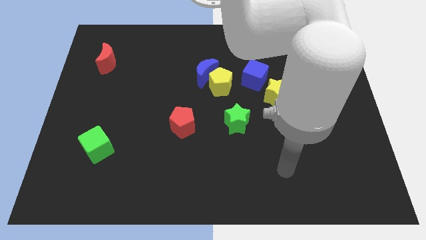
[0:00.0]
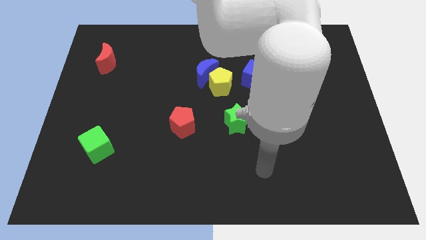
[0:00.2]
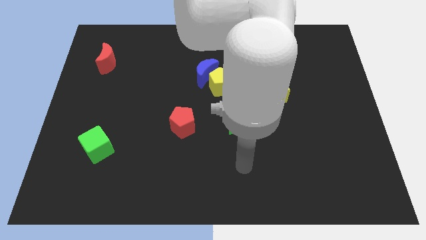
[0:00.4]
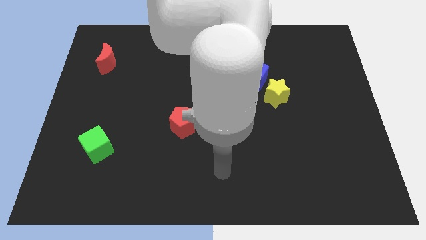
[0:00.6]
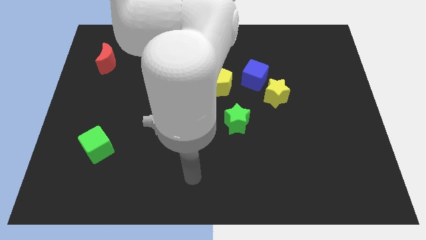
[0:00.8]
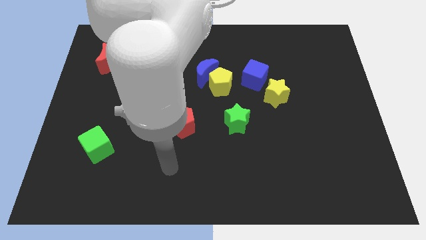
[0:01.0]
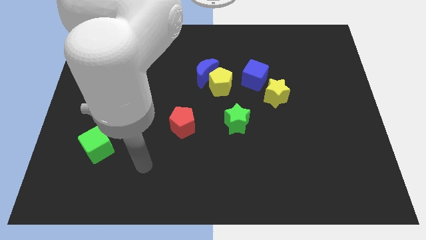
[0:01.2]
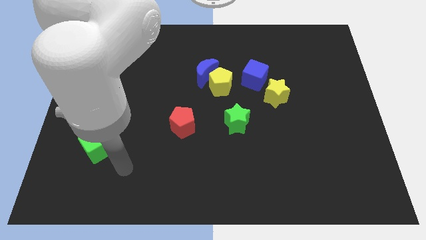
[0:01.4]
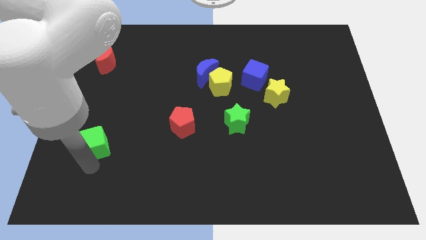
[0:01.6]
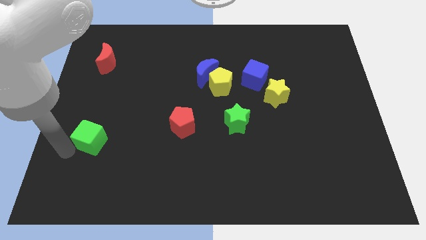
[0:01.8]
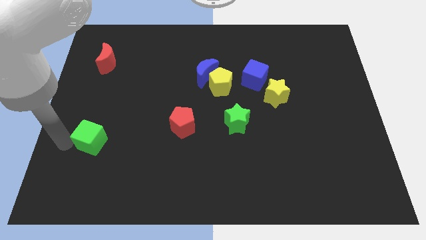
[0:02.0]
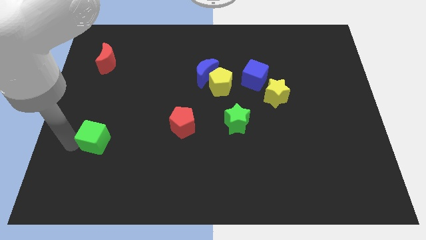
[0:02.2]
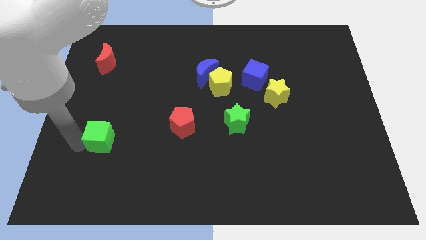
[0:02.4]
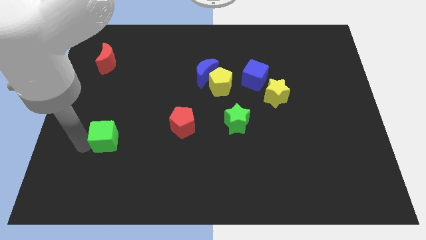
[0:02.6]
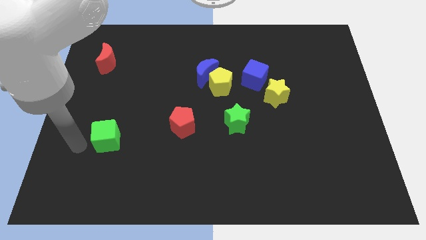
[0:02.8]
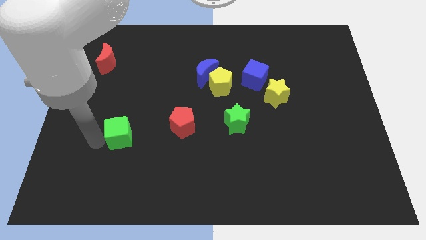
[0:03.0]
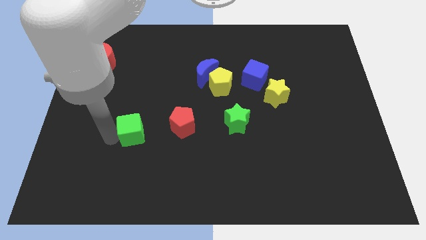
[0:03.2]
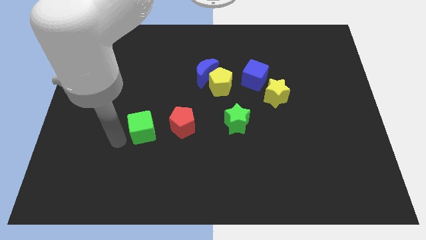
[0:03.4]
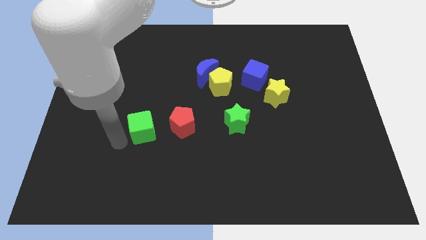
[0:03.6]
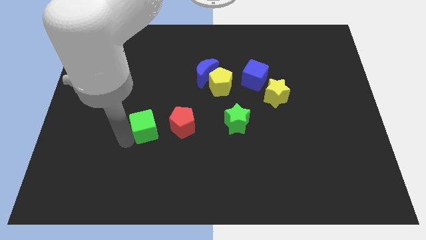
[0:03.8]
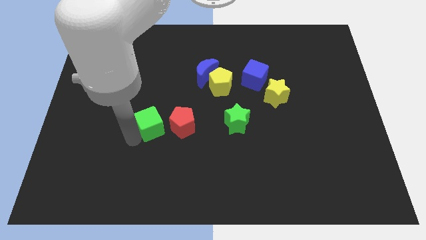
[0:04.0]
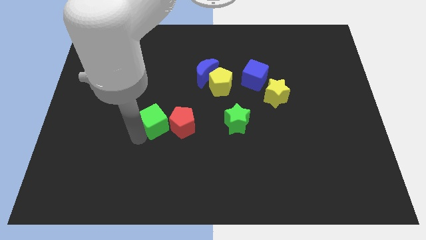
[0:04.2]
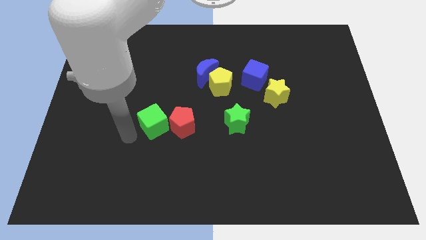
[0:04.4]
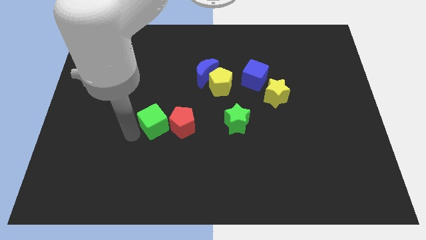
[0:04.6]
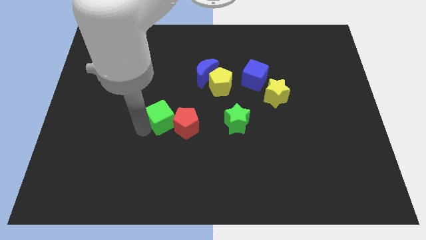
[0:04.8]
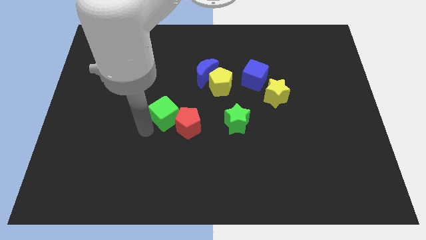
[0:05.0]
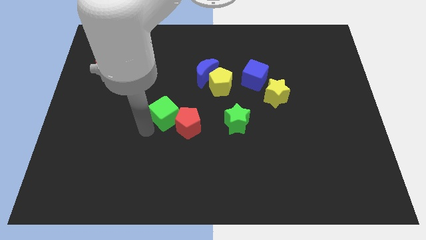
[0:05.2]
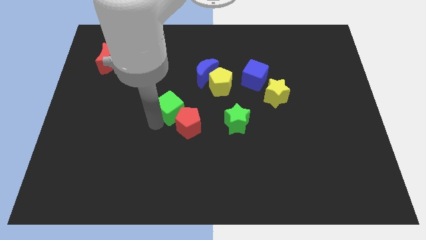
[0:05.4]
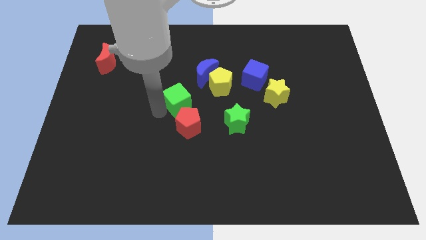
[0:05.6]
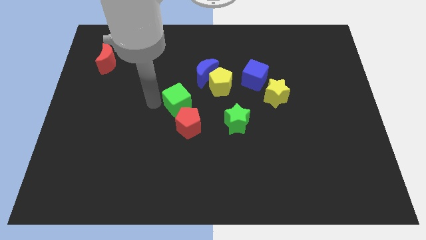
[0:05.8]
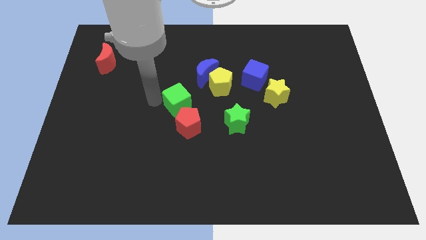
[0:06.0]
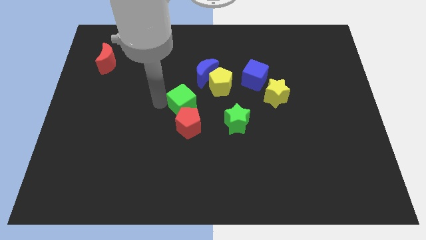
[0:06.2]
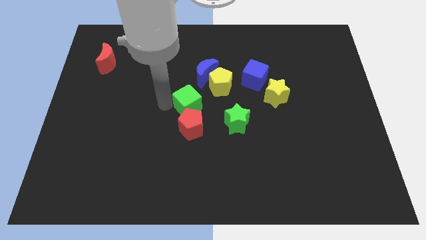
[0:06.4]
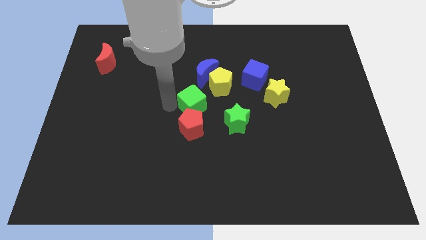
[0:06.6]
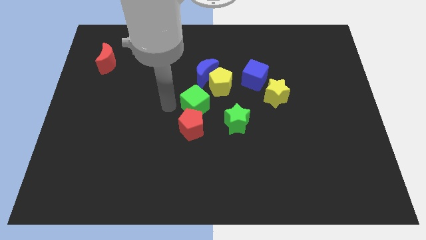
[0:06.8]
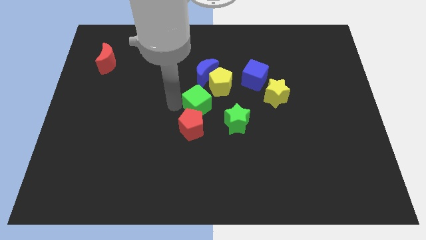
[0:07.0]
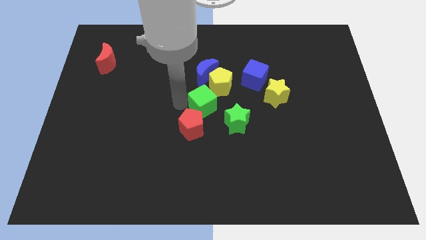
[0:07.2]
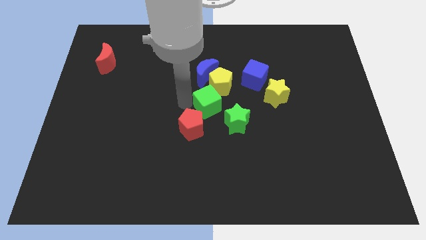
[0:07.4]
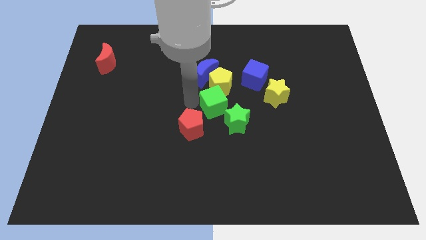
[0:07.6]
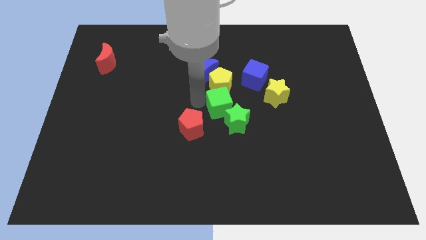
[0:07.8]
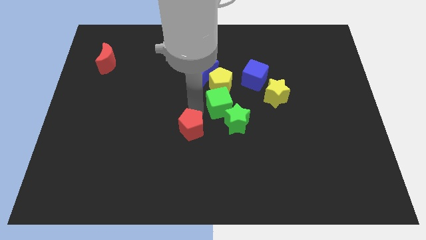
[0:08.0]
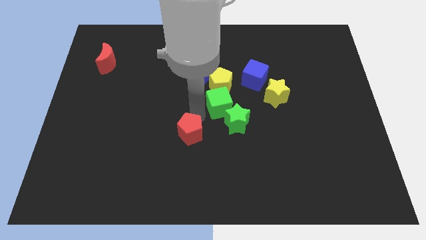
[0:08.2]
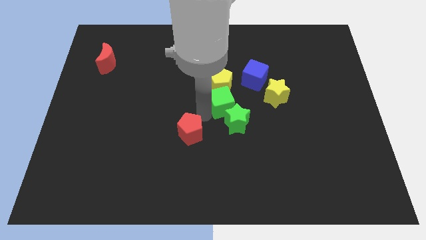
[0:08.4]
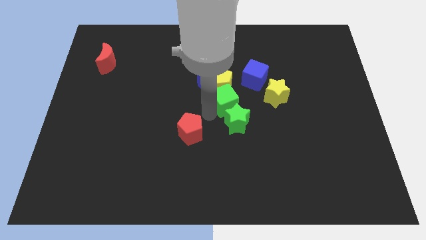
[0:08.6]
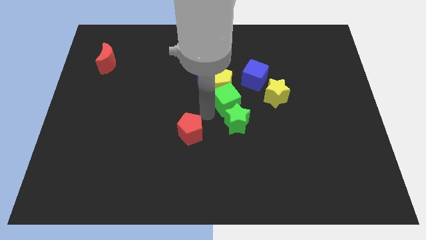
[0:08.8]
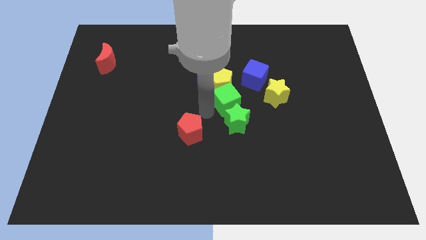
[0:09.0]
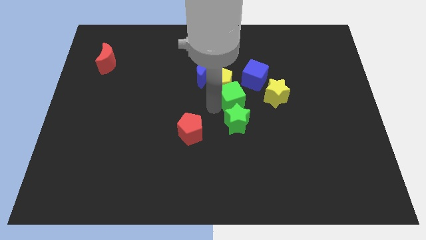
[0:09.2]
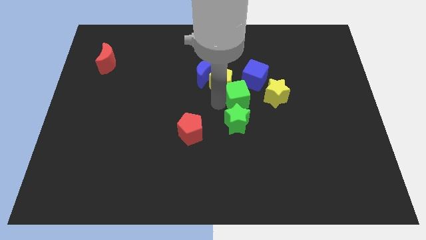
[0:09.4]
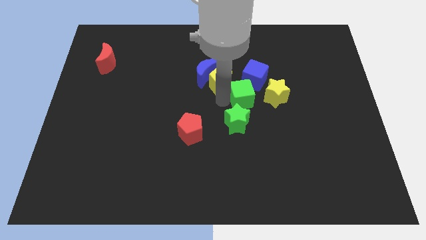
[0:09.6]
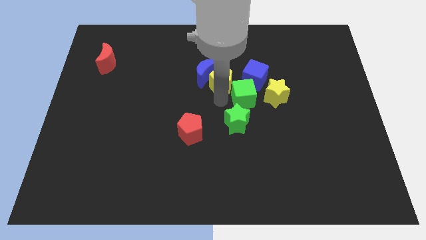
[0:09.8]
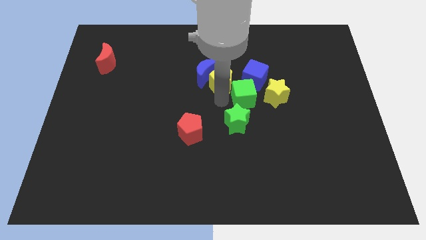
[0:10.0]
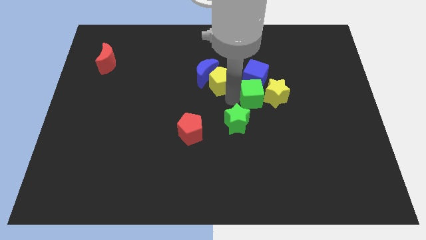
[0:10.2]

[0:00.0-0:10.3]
put the green cube close to the yellow star

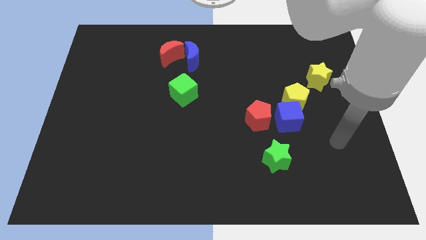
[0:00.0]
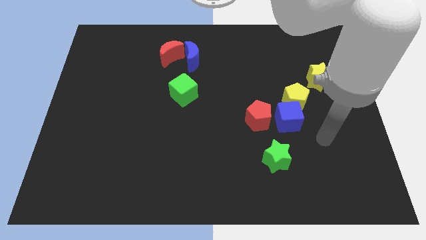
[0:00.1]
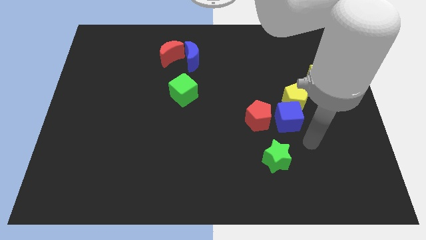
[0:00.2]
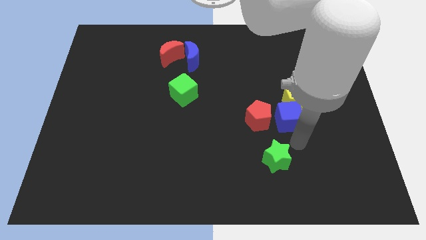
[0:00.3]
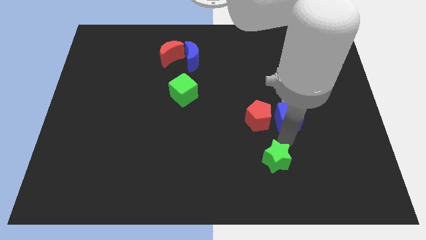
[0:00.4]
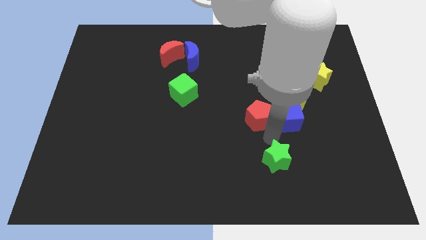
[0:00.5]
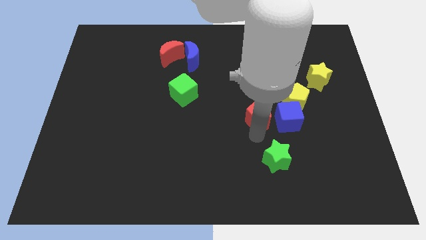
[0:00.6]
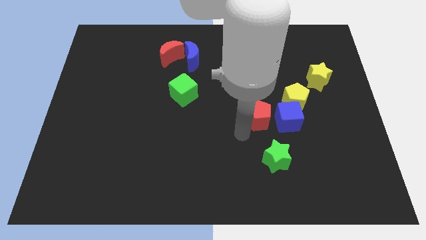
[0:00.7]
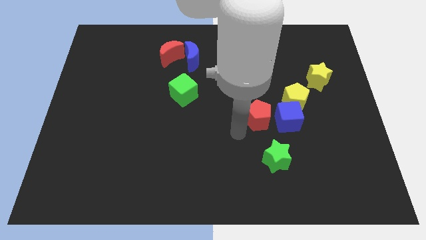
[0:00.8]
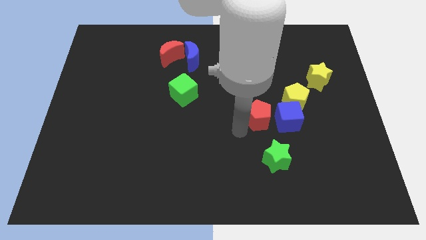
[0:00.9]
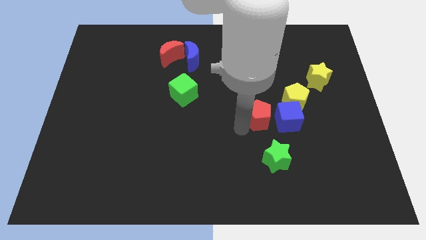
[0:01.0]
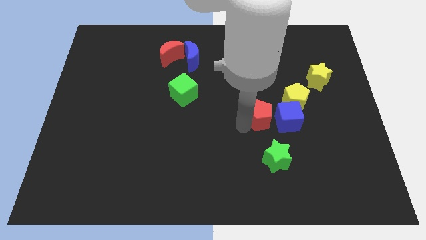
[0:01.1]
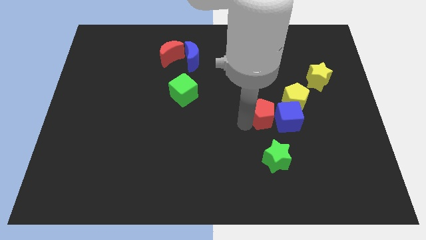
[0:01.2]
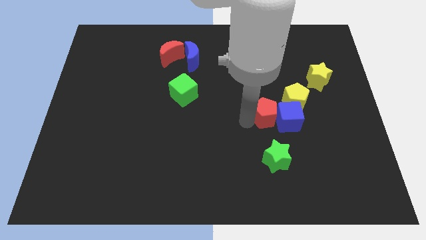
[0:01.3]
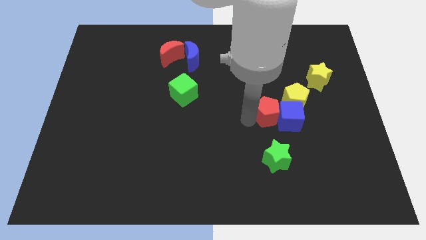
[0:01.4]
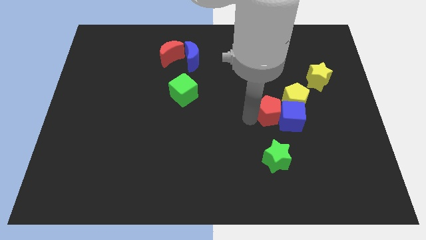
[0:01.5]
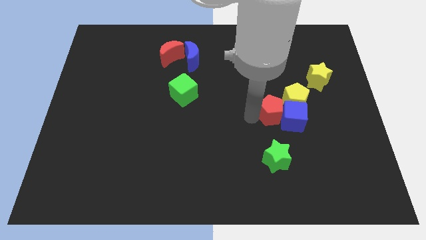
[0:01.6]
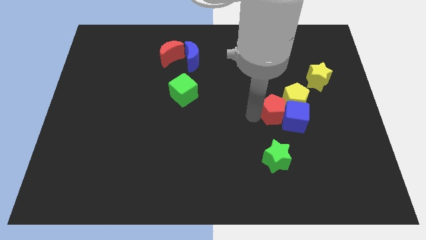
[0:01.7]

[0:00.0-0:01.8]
move the red pentagon to the yellow pentagon
